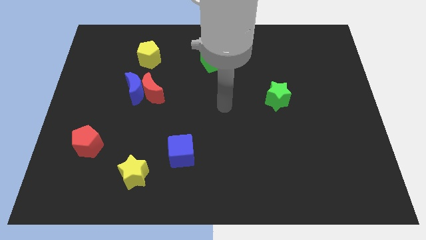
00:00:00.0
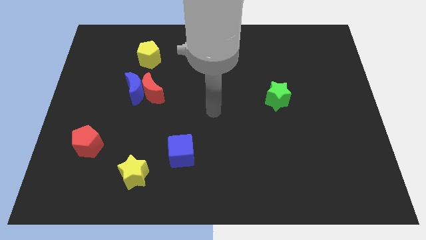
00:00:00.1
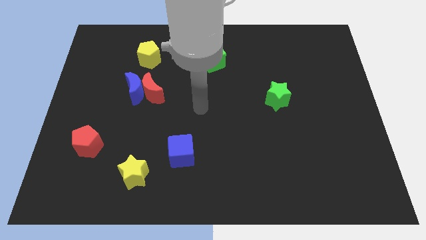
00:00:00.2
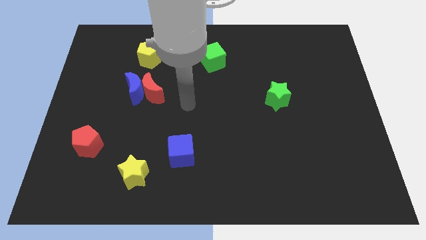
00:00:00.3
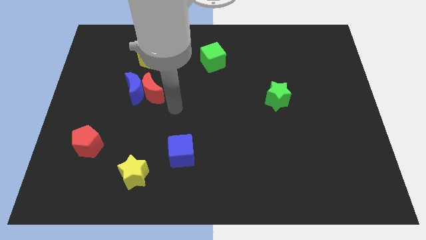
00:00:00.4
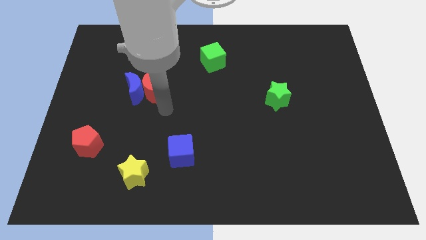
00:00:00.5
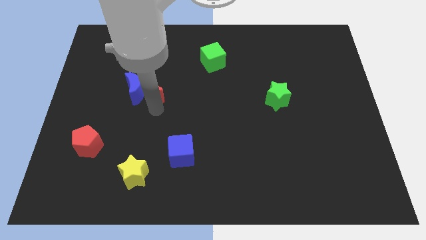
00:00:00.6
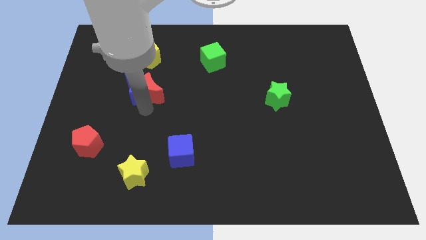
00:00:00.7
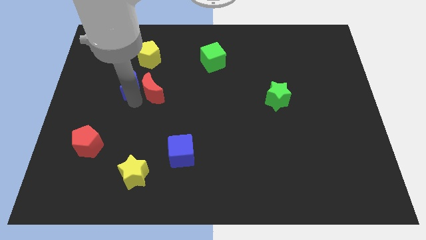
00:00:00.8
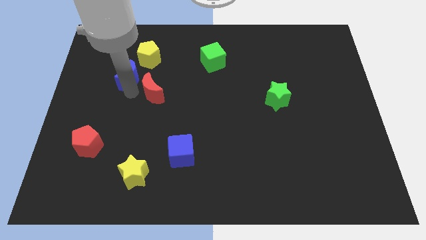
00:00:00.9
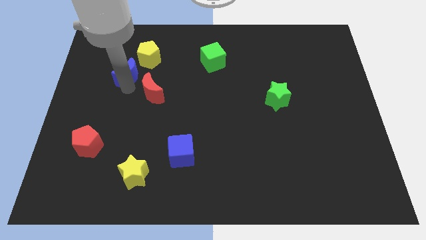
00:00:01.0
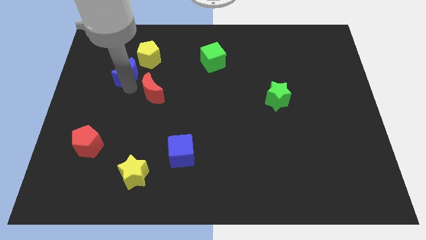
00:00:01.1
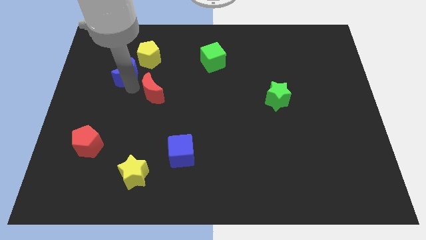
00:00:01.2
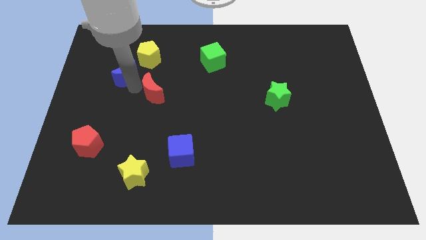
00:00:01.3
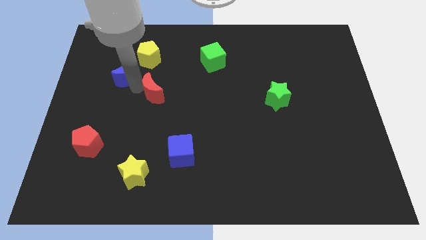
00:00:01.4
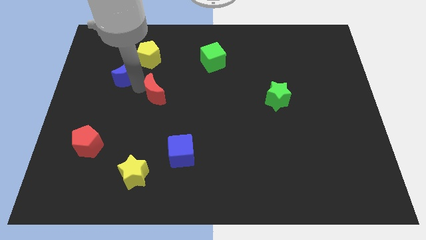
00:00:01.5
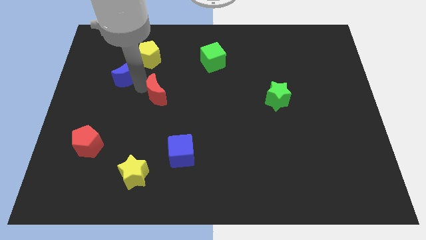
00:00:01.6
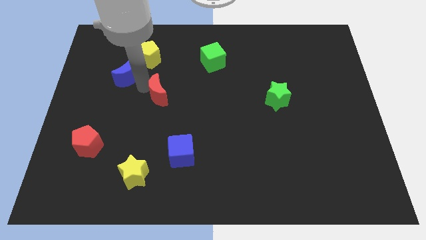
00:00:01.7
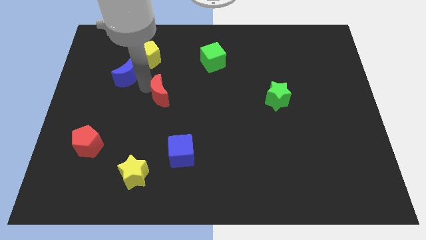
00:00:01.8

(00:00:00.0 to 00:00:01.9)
move the red moon away from the blue moon

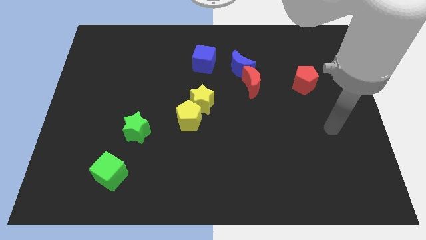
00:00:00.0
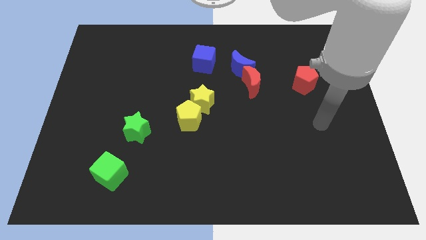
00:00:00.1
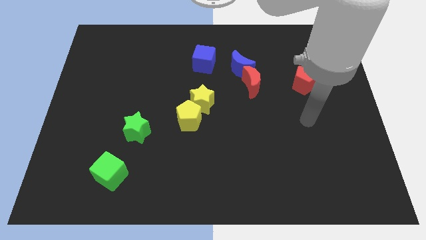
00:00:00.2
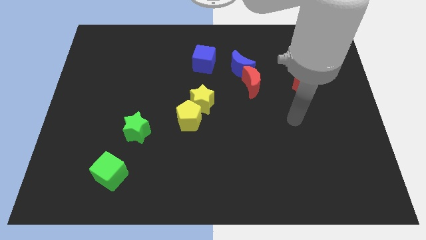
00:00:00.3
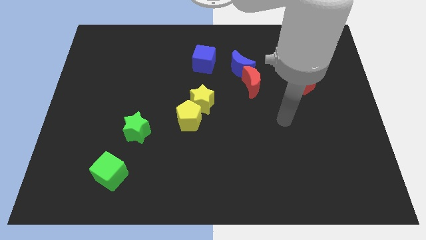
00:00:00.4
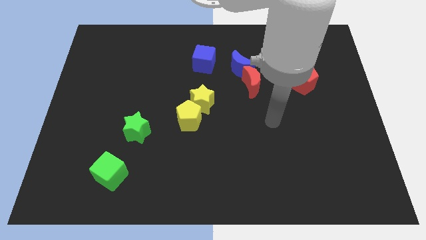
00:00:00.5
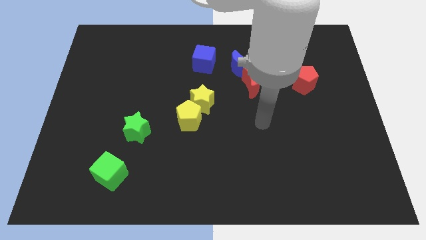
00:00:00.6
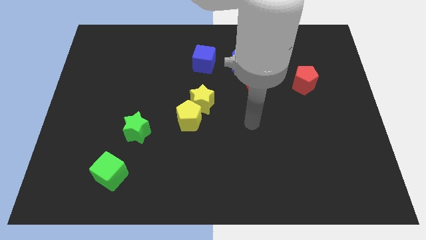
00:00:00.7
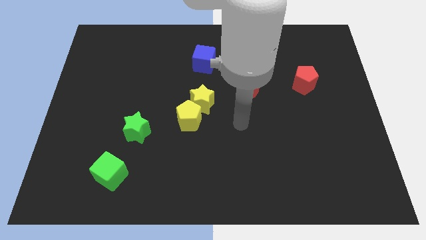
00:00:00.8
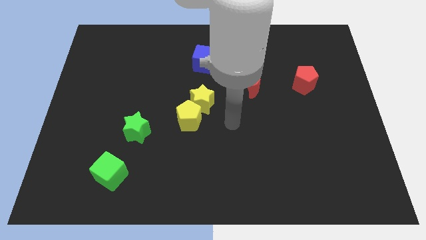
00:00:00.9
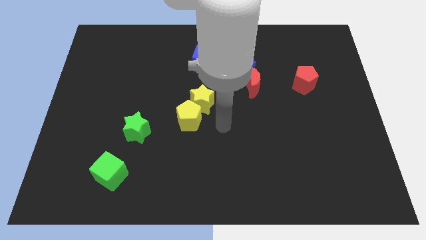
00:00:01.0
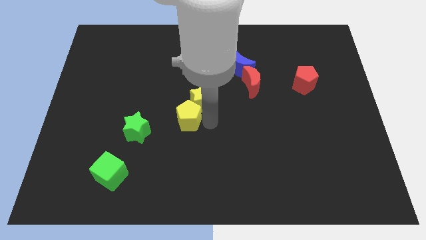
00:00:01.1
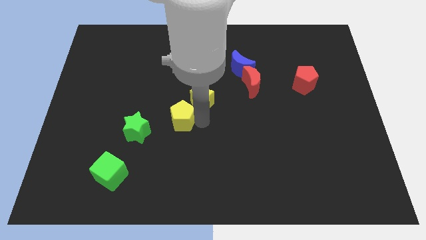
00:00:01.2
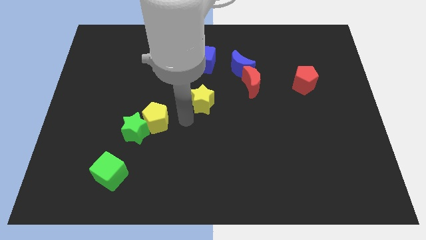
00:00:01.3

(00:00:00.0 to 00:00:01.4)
move the yellow star away from the yellow pentagon

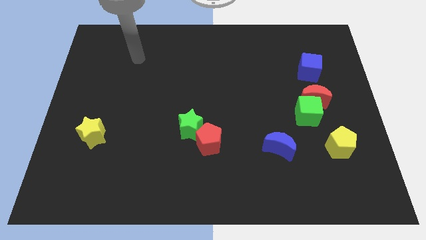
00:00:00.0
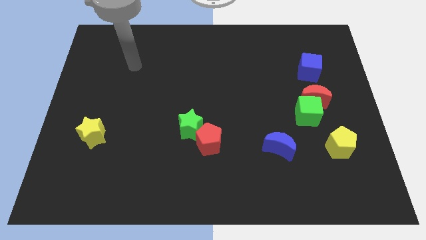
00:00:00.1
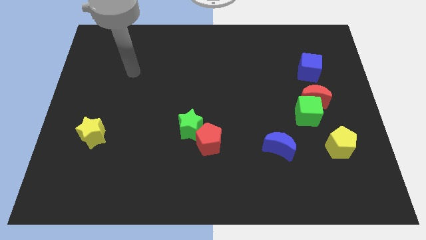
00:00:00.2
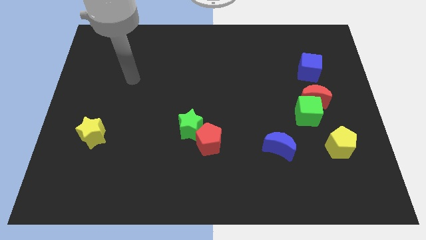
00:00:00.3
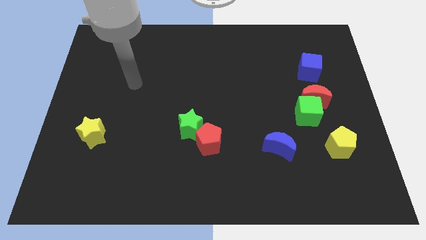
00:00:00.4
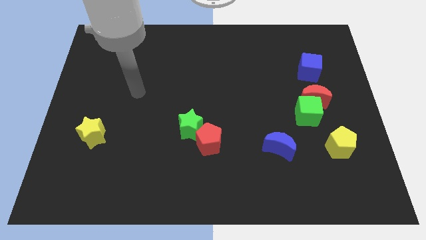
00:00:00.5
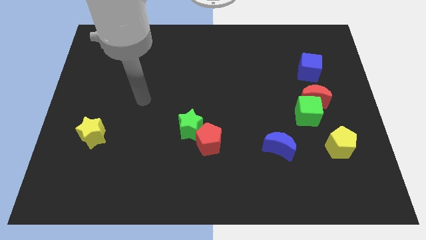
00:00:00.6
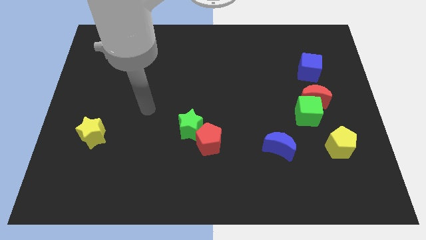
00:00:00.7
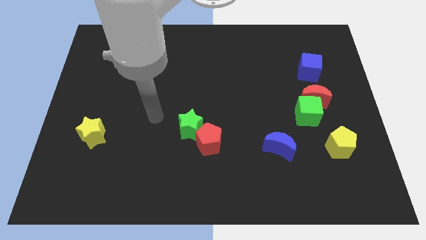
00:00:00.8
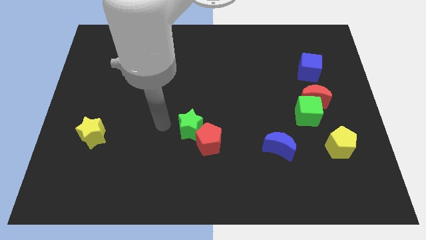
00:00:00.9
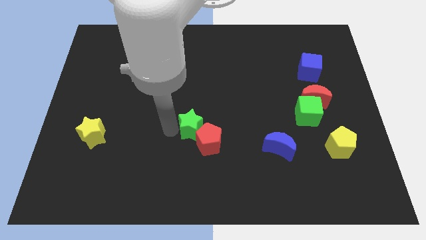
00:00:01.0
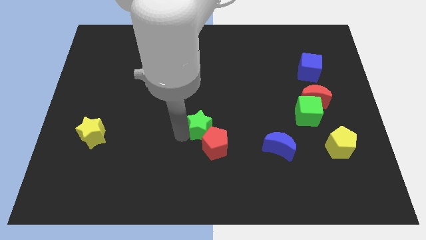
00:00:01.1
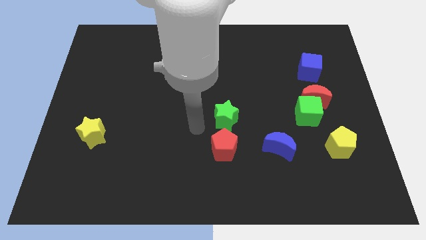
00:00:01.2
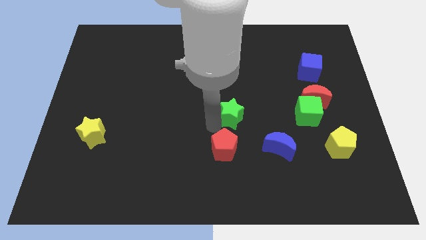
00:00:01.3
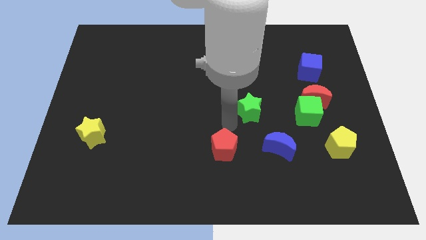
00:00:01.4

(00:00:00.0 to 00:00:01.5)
pull the red pentagon apart from the green star

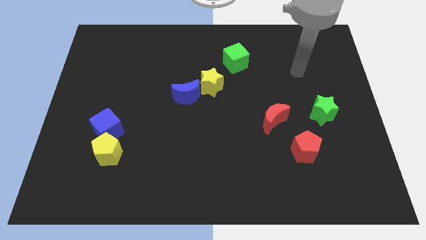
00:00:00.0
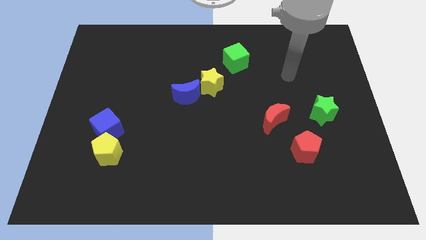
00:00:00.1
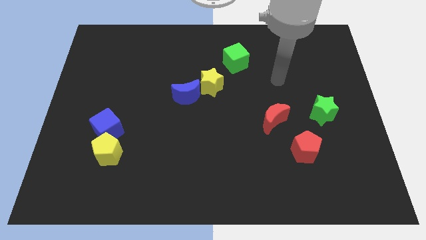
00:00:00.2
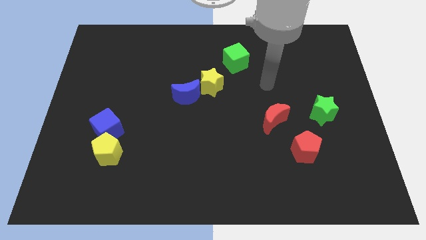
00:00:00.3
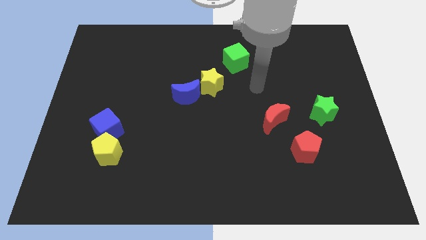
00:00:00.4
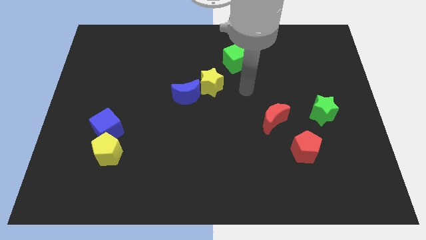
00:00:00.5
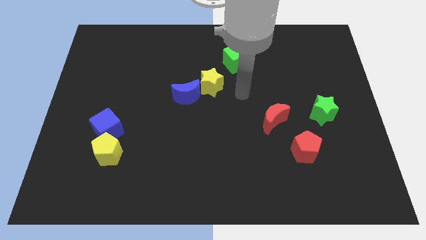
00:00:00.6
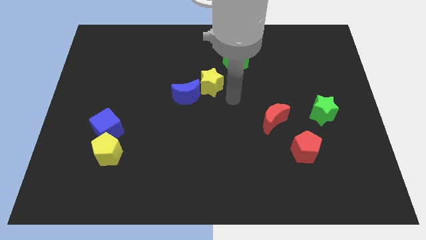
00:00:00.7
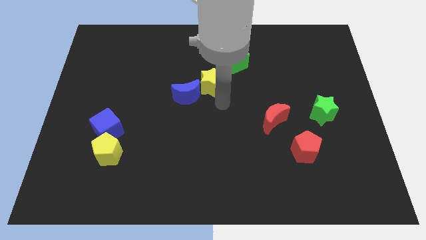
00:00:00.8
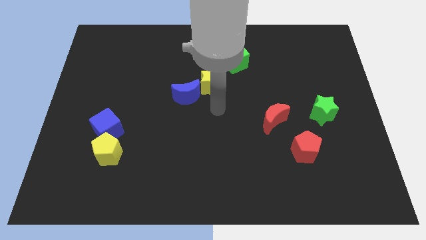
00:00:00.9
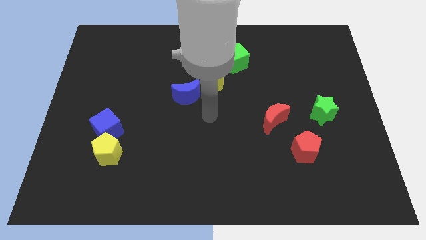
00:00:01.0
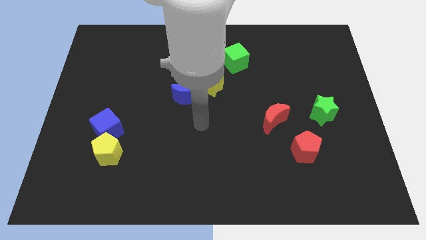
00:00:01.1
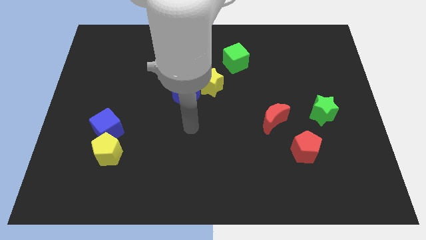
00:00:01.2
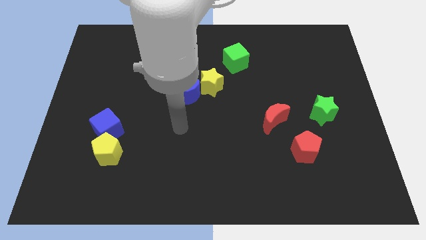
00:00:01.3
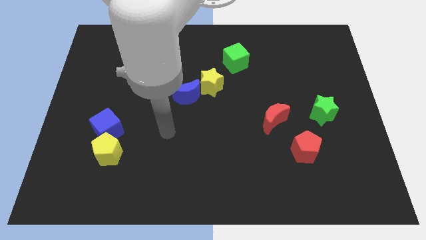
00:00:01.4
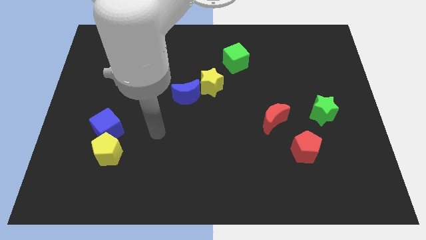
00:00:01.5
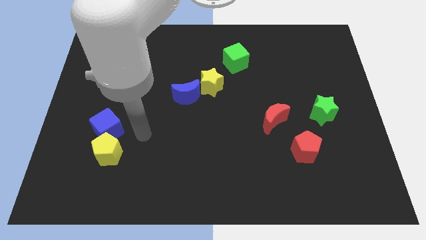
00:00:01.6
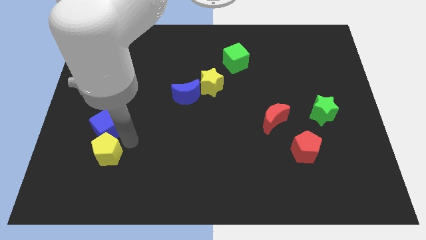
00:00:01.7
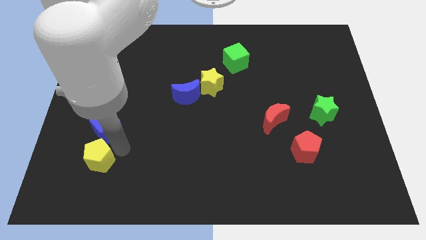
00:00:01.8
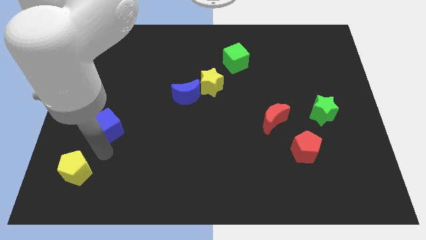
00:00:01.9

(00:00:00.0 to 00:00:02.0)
move the blue cube away from the yellow pentagon

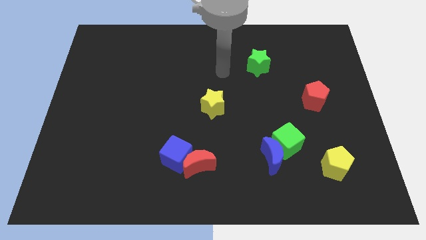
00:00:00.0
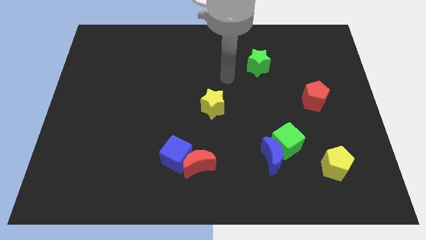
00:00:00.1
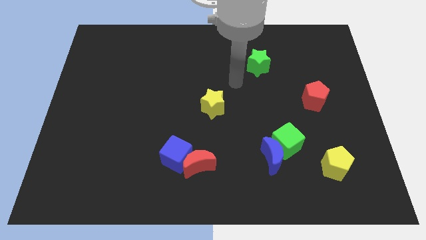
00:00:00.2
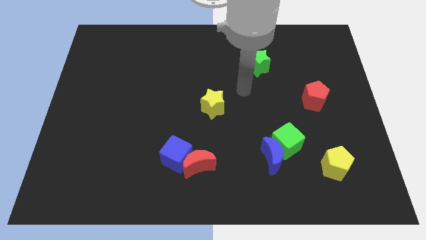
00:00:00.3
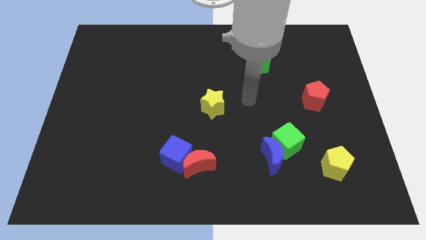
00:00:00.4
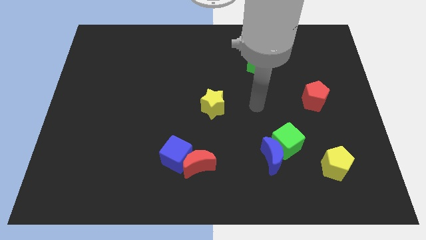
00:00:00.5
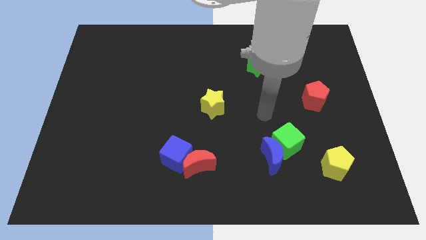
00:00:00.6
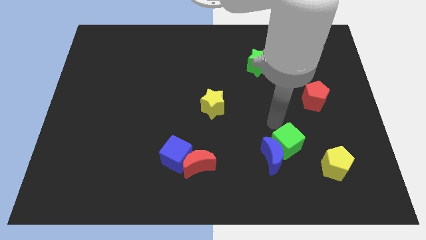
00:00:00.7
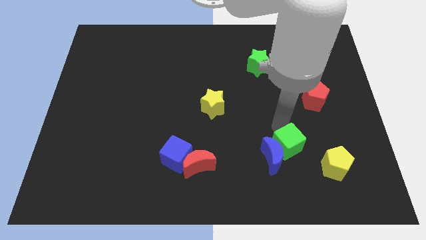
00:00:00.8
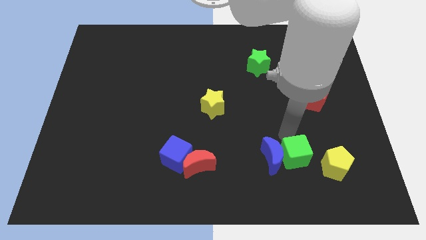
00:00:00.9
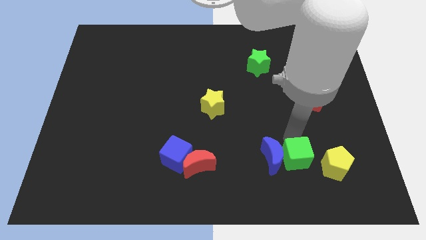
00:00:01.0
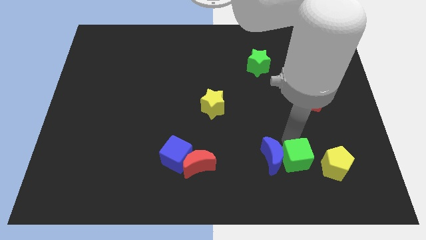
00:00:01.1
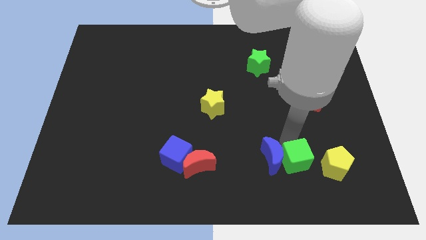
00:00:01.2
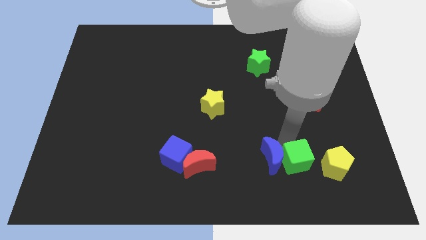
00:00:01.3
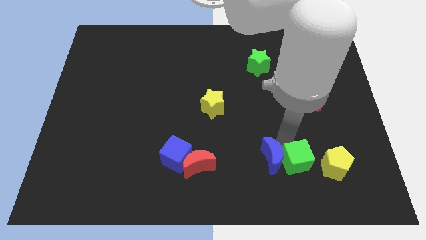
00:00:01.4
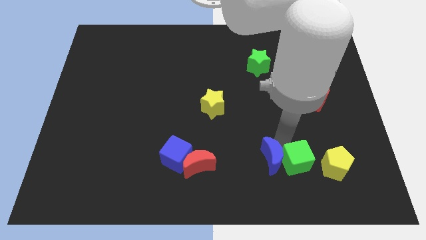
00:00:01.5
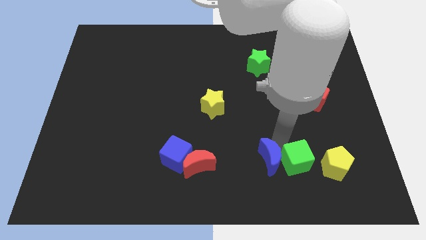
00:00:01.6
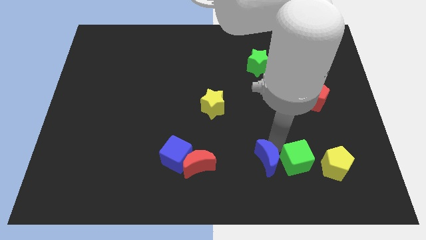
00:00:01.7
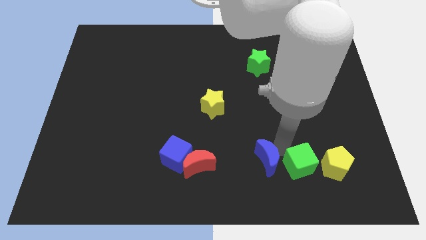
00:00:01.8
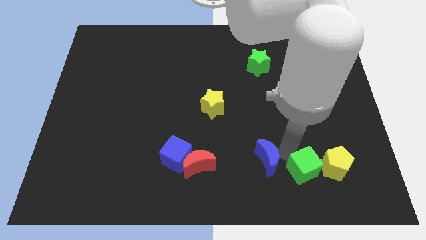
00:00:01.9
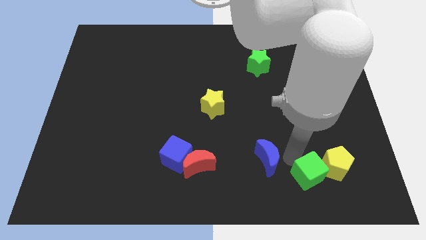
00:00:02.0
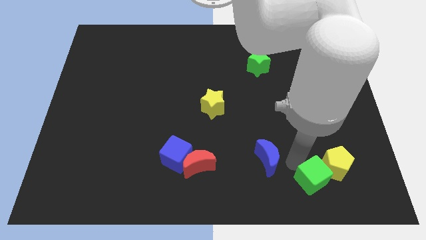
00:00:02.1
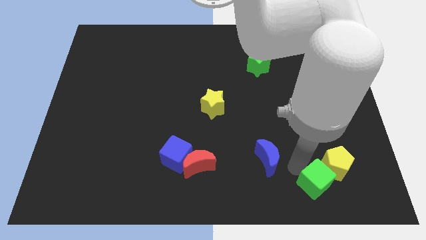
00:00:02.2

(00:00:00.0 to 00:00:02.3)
move the blue moon away from the green cube

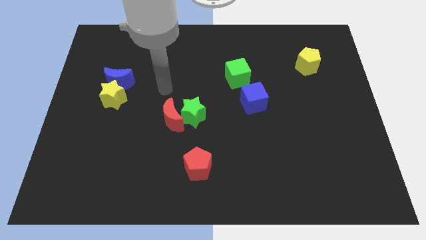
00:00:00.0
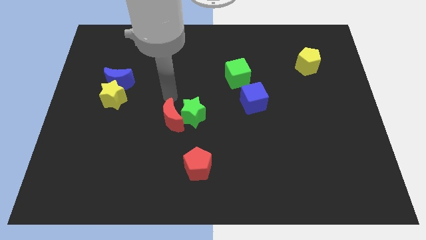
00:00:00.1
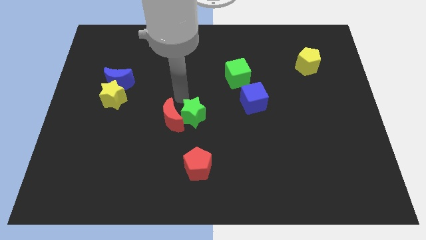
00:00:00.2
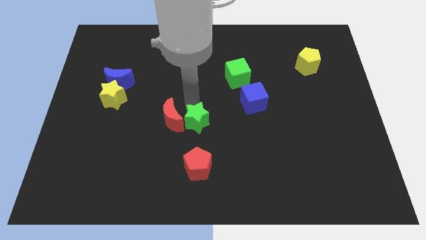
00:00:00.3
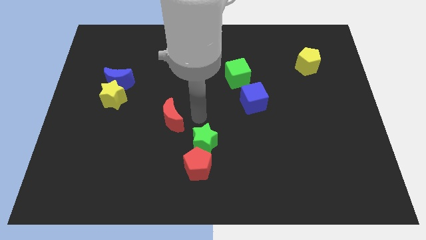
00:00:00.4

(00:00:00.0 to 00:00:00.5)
move the red moon away from the green star
